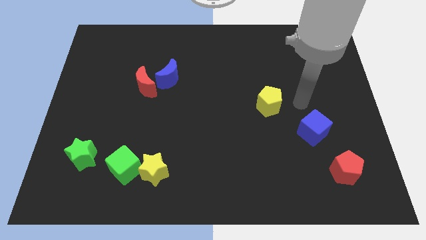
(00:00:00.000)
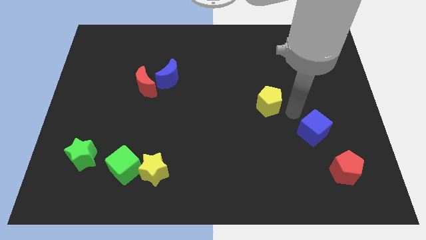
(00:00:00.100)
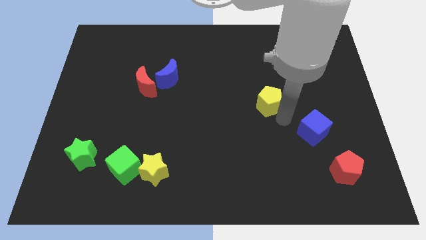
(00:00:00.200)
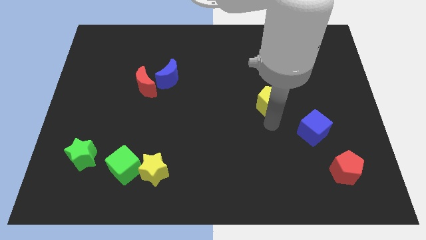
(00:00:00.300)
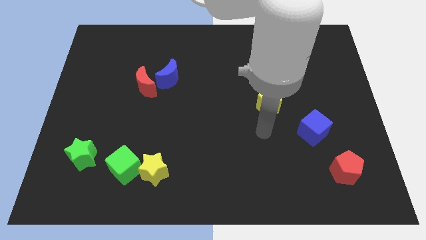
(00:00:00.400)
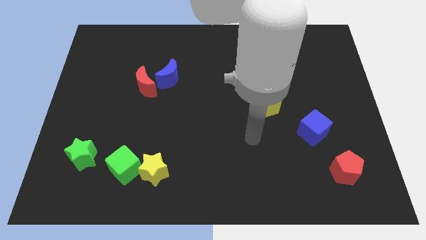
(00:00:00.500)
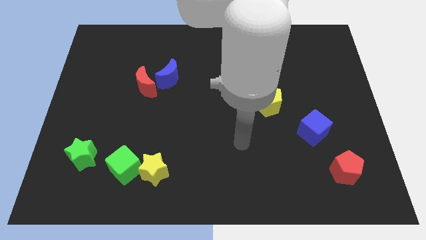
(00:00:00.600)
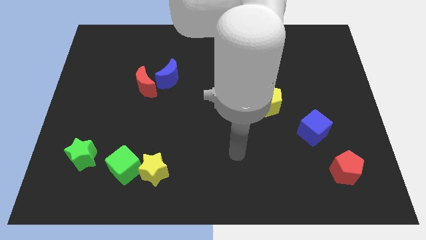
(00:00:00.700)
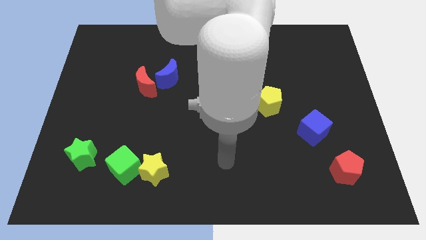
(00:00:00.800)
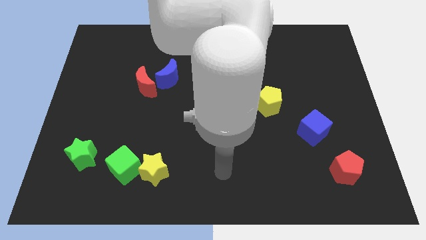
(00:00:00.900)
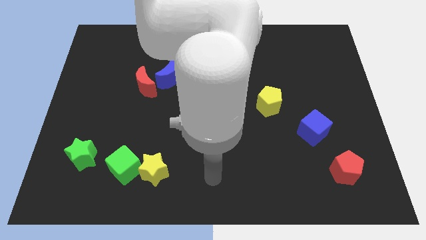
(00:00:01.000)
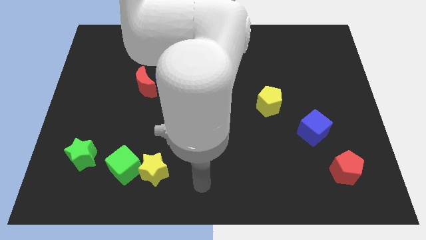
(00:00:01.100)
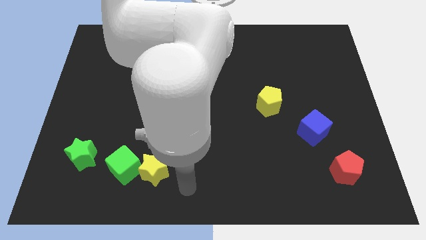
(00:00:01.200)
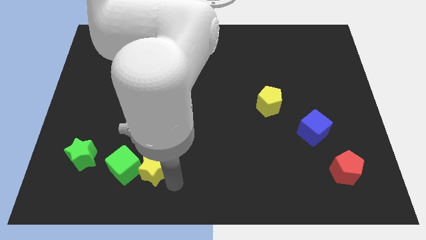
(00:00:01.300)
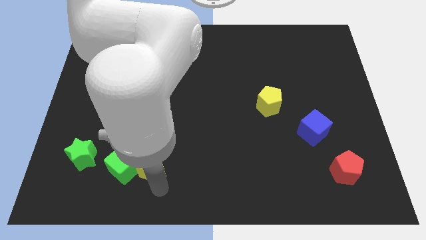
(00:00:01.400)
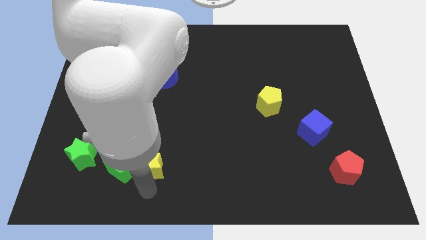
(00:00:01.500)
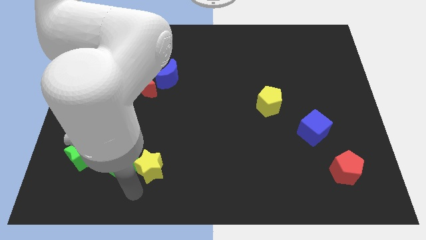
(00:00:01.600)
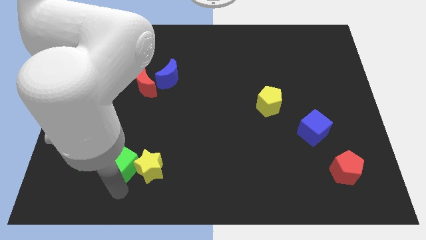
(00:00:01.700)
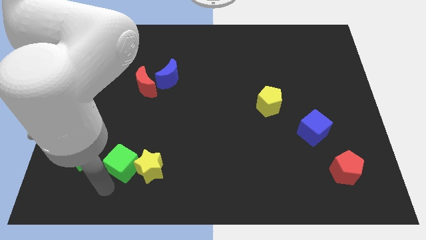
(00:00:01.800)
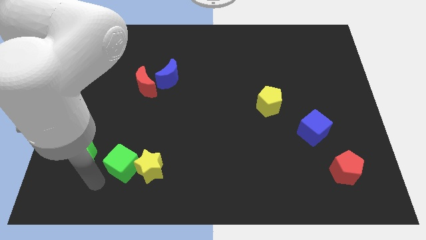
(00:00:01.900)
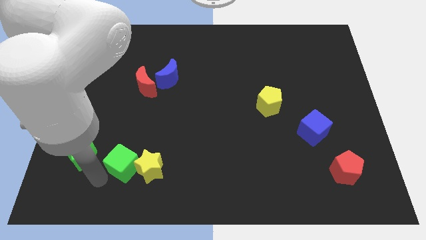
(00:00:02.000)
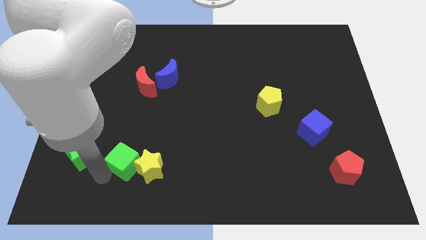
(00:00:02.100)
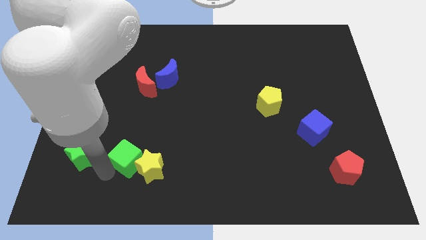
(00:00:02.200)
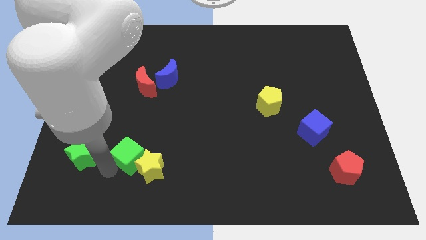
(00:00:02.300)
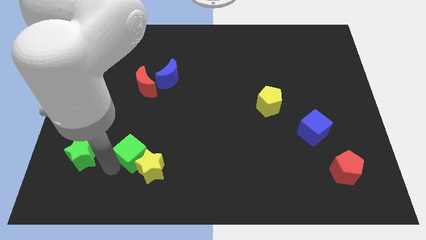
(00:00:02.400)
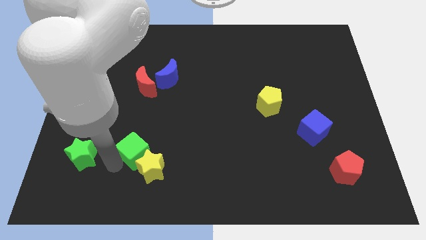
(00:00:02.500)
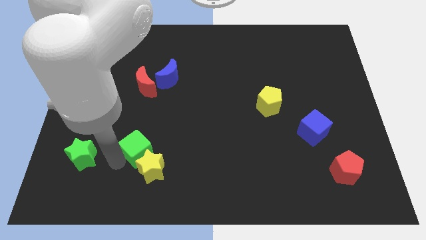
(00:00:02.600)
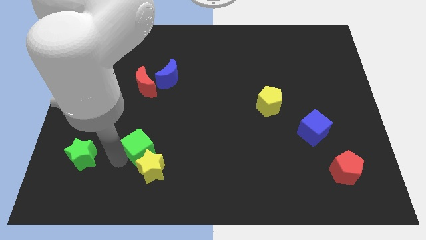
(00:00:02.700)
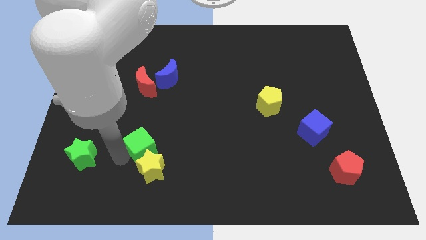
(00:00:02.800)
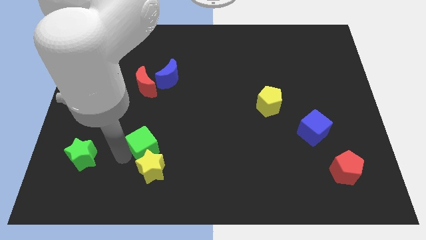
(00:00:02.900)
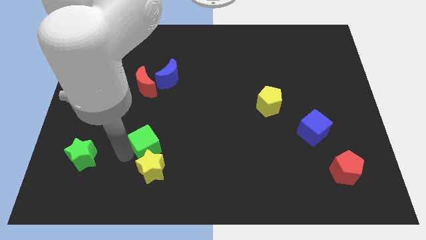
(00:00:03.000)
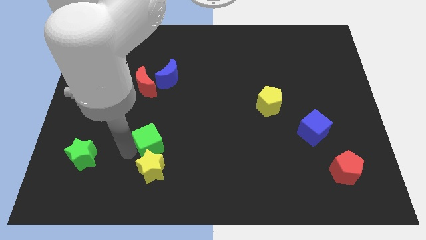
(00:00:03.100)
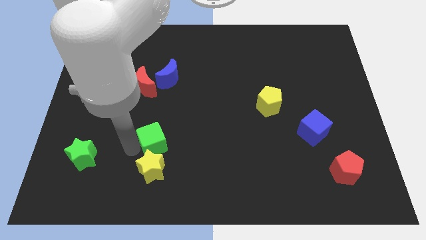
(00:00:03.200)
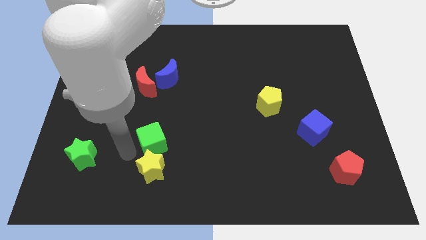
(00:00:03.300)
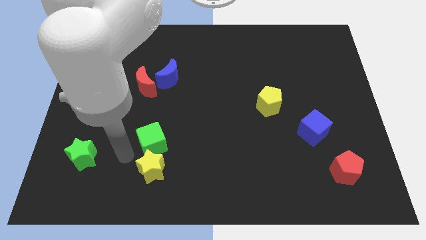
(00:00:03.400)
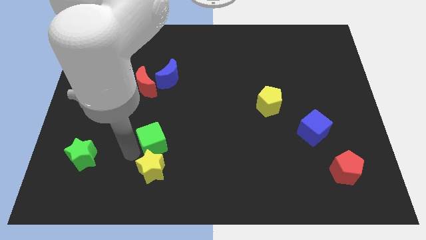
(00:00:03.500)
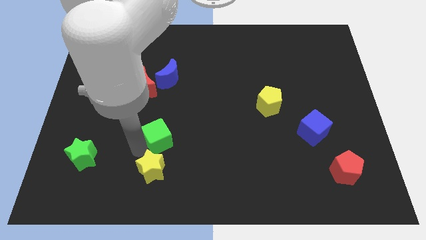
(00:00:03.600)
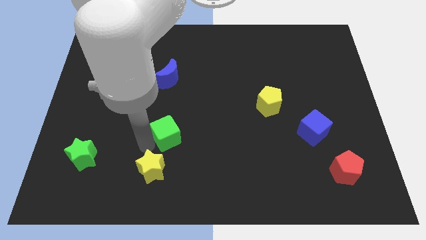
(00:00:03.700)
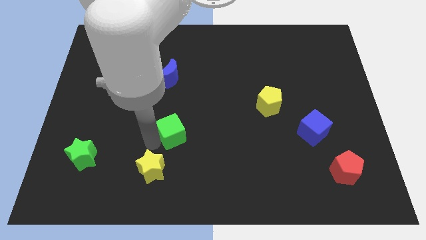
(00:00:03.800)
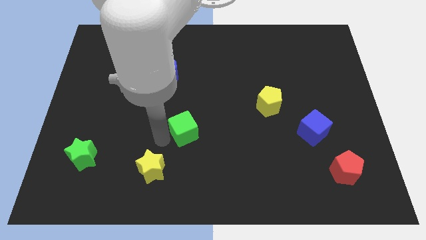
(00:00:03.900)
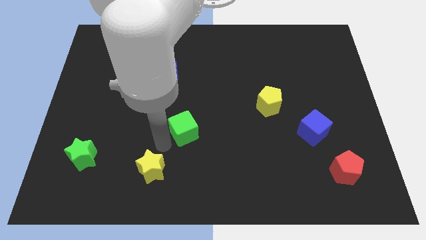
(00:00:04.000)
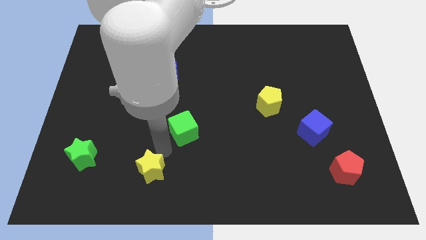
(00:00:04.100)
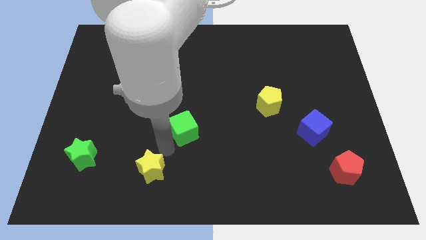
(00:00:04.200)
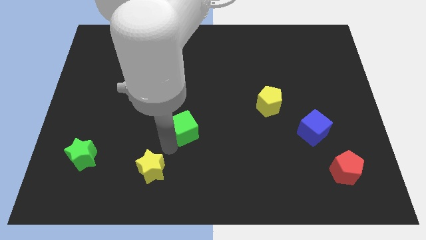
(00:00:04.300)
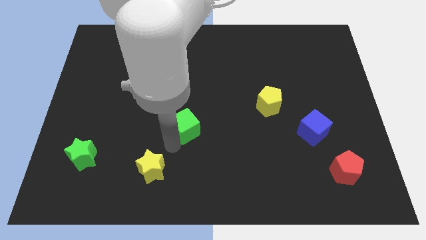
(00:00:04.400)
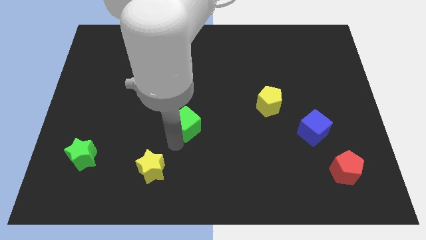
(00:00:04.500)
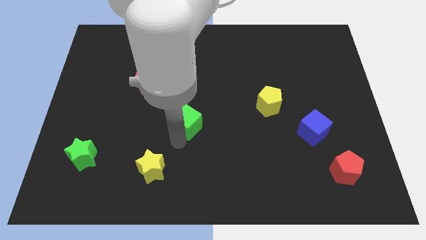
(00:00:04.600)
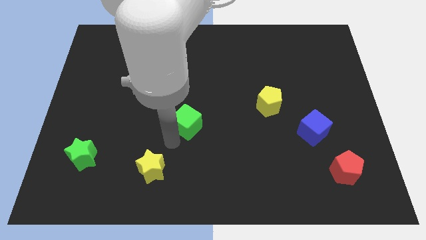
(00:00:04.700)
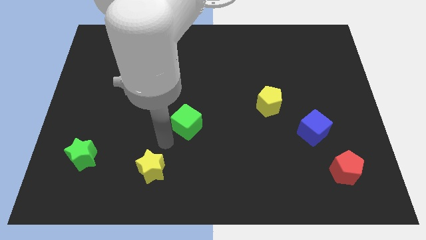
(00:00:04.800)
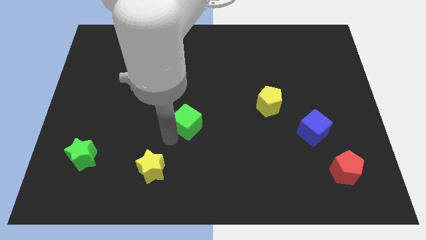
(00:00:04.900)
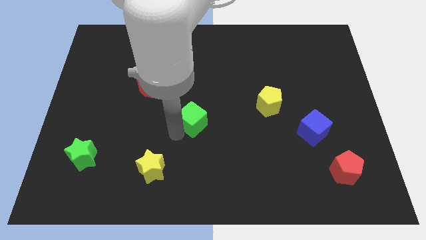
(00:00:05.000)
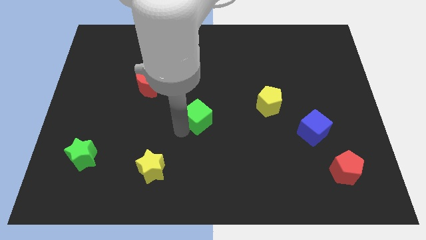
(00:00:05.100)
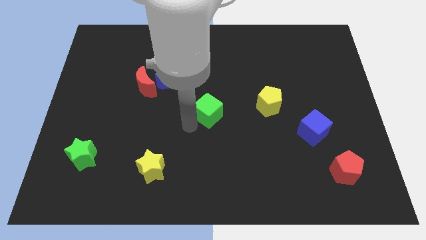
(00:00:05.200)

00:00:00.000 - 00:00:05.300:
push the green cube up and then to the right

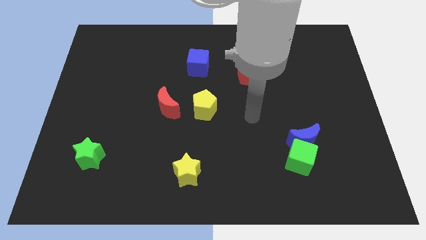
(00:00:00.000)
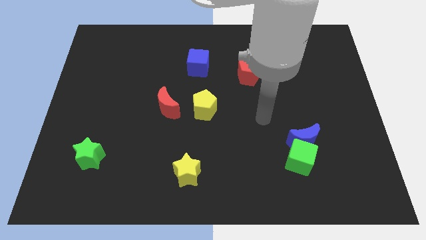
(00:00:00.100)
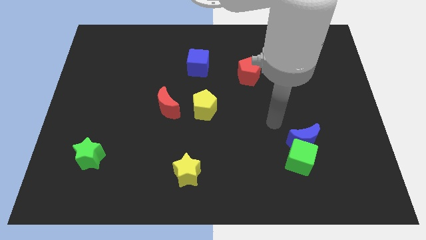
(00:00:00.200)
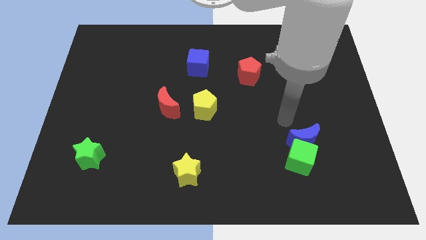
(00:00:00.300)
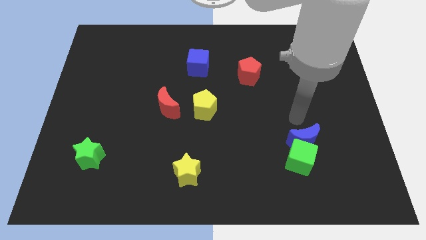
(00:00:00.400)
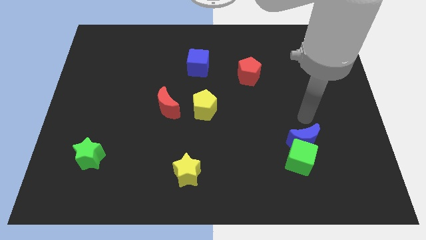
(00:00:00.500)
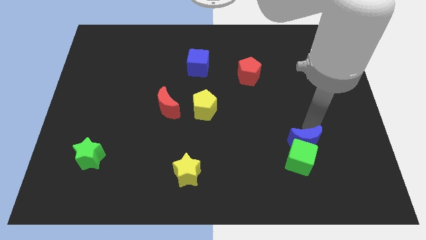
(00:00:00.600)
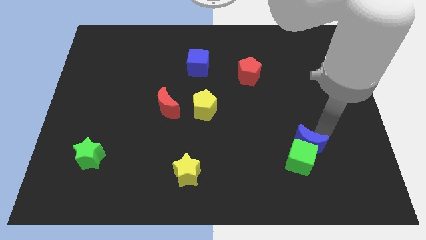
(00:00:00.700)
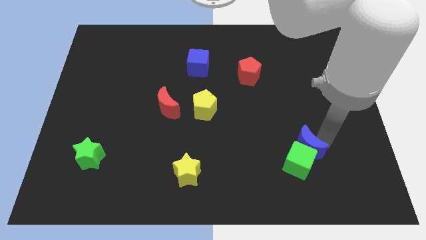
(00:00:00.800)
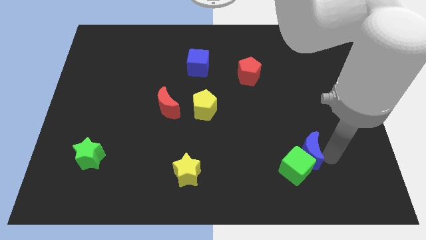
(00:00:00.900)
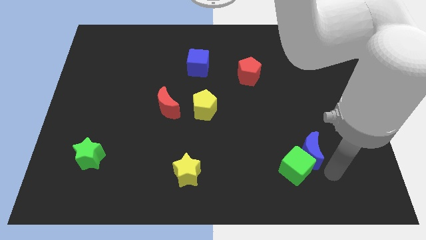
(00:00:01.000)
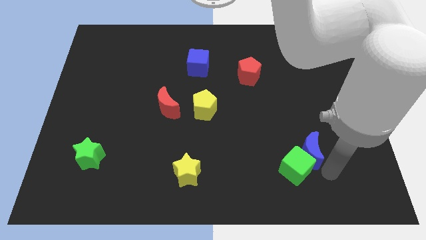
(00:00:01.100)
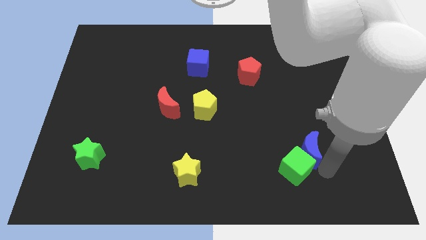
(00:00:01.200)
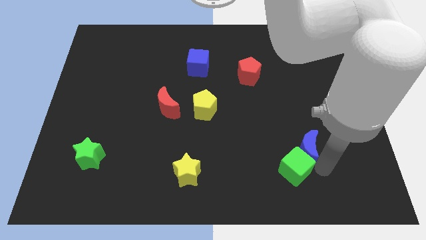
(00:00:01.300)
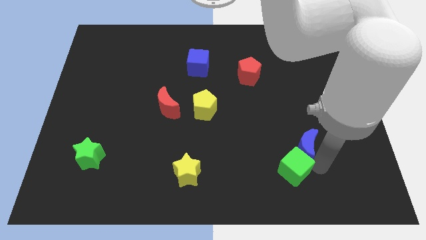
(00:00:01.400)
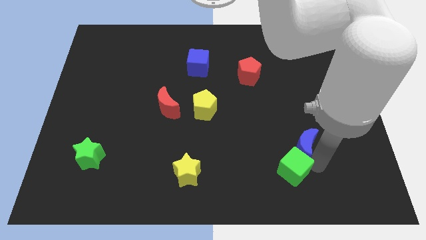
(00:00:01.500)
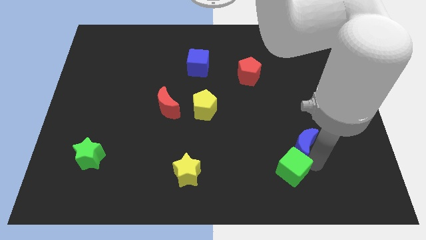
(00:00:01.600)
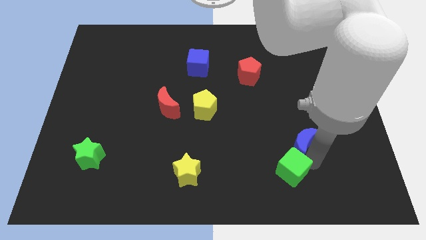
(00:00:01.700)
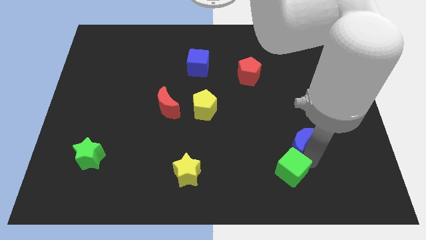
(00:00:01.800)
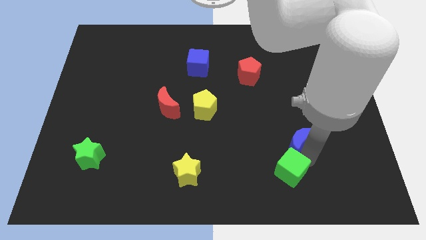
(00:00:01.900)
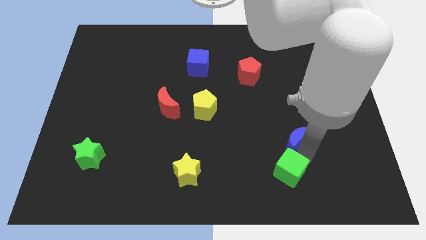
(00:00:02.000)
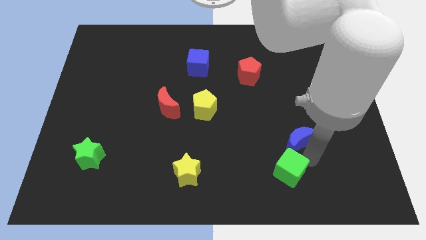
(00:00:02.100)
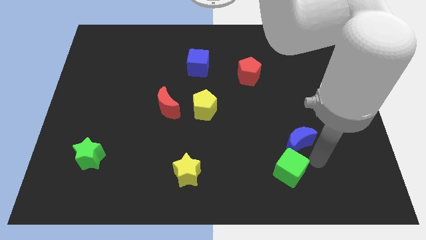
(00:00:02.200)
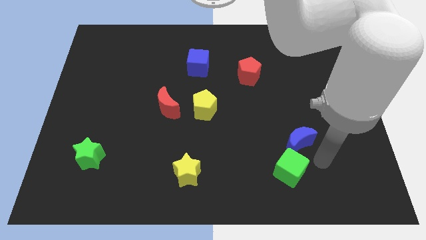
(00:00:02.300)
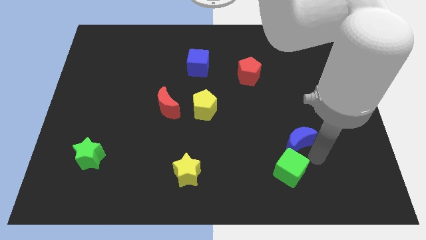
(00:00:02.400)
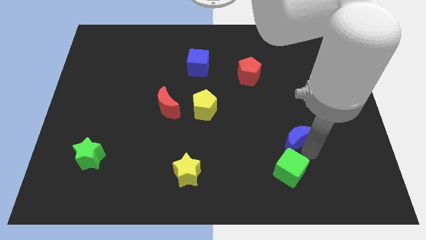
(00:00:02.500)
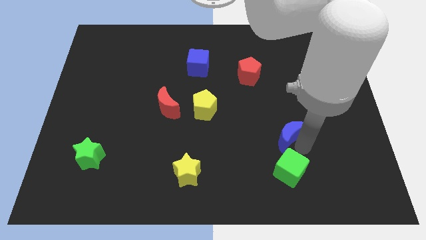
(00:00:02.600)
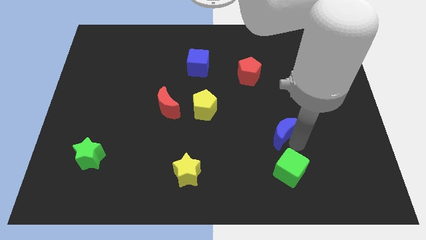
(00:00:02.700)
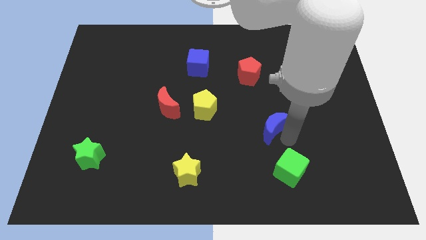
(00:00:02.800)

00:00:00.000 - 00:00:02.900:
slightly push the blue moon diagonally up and left
